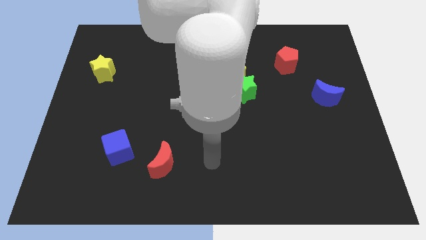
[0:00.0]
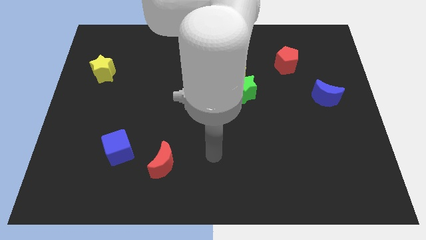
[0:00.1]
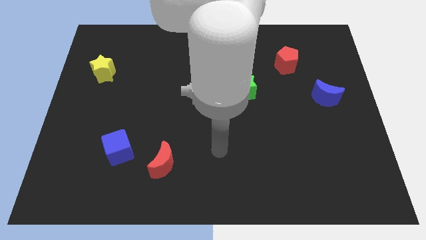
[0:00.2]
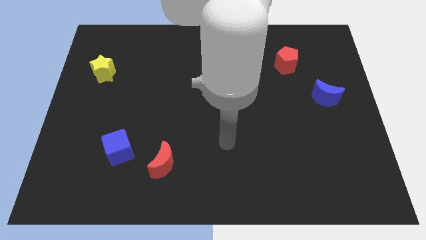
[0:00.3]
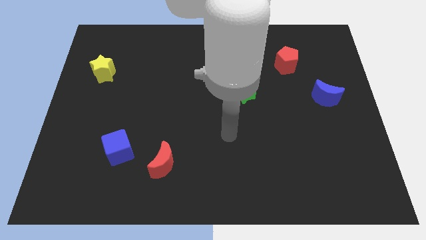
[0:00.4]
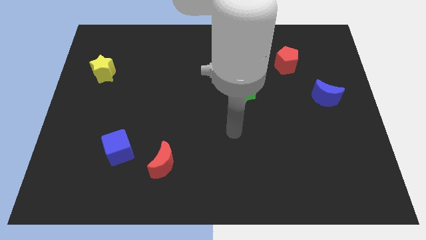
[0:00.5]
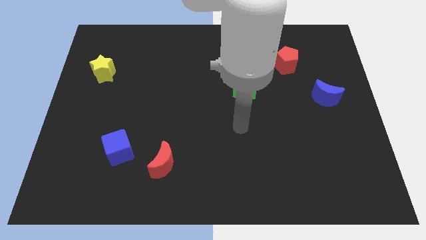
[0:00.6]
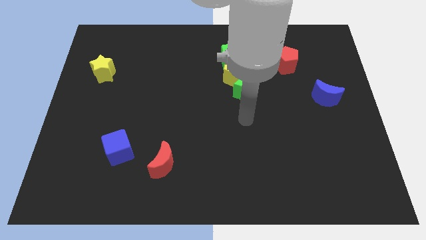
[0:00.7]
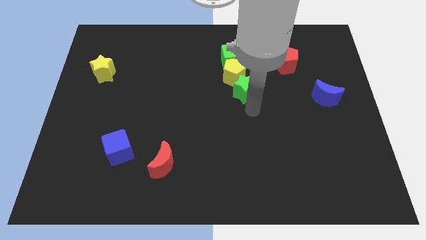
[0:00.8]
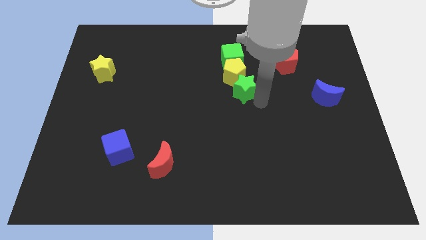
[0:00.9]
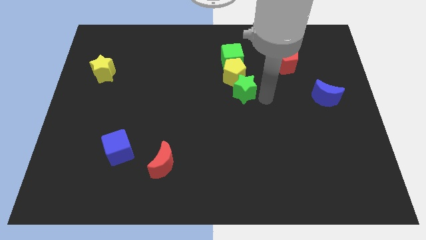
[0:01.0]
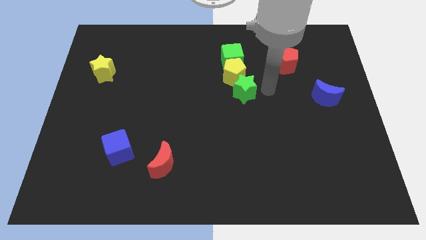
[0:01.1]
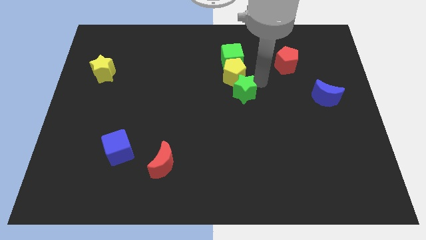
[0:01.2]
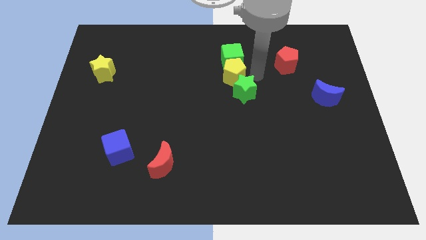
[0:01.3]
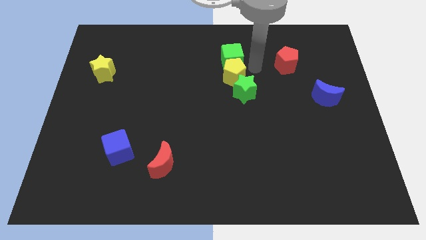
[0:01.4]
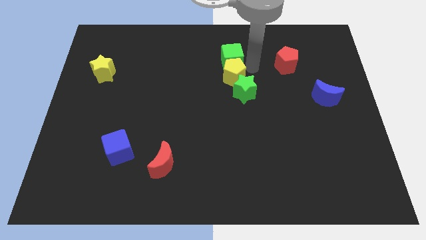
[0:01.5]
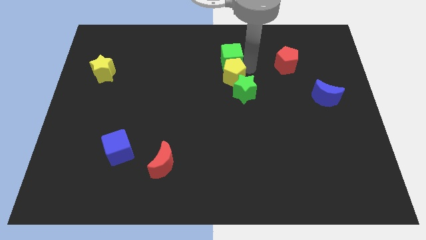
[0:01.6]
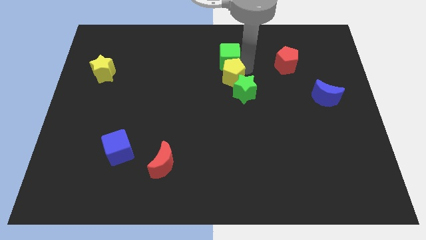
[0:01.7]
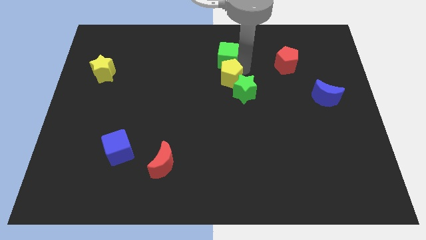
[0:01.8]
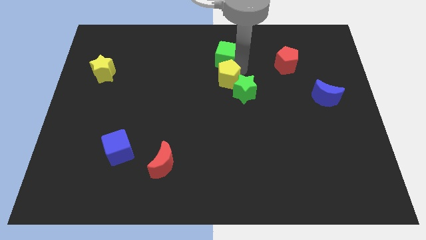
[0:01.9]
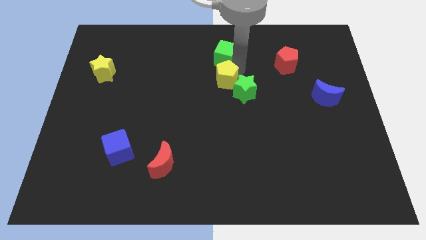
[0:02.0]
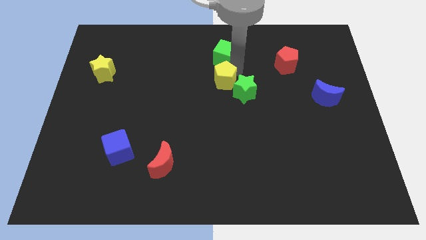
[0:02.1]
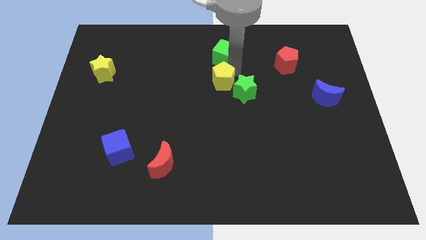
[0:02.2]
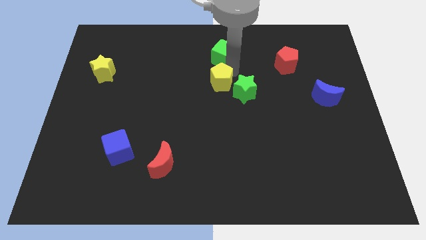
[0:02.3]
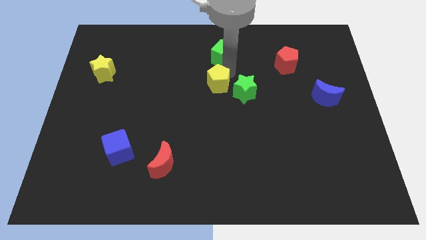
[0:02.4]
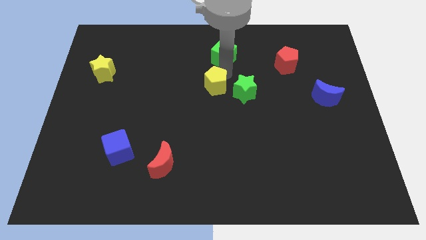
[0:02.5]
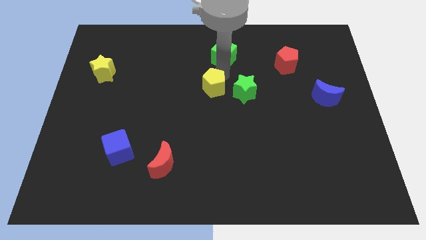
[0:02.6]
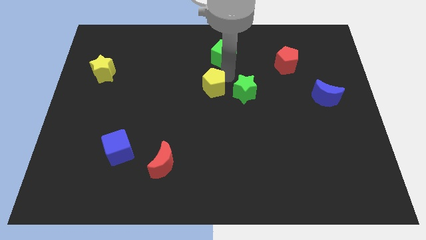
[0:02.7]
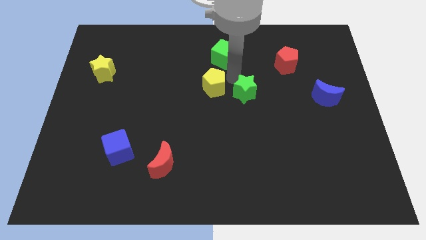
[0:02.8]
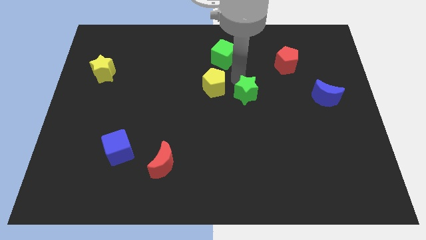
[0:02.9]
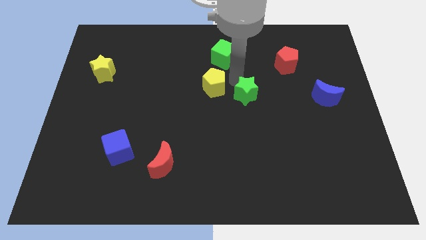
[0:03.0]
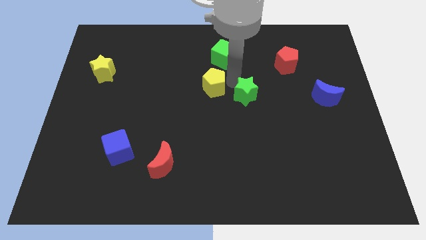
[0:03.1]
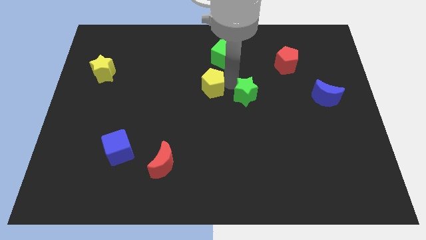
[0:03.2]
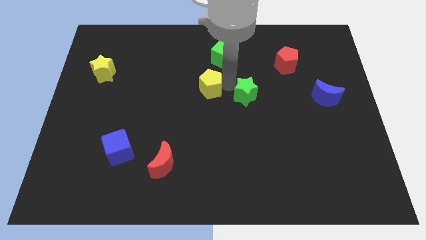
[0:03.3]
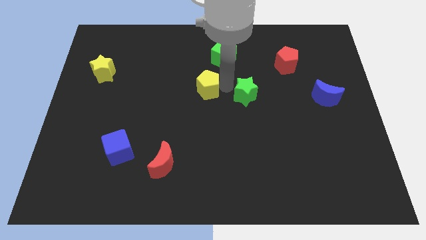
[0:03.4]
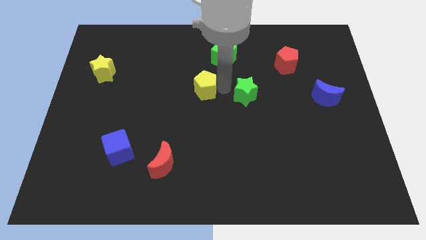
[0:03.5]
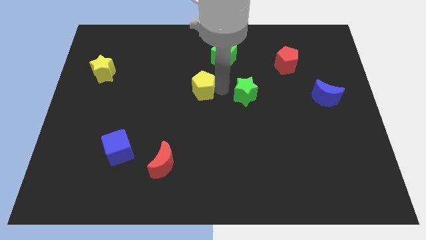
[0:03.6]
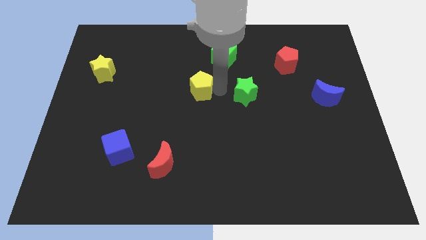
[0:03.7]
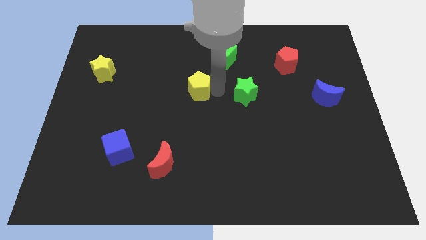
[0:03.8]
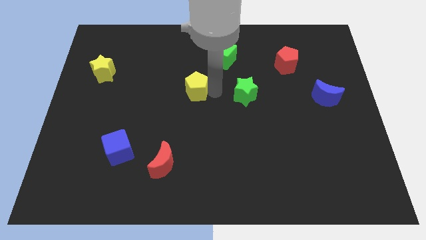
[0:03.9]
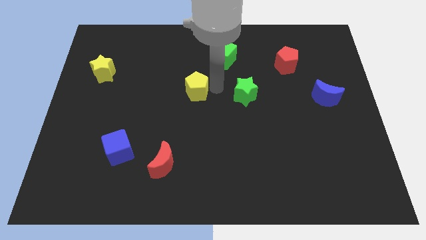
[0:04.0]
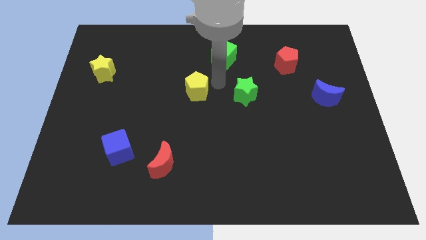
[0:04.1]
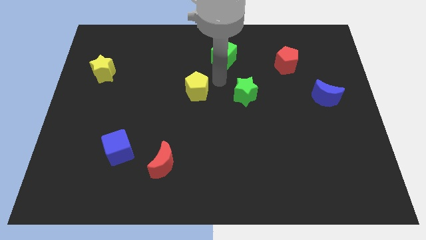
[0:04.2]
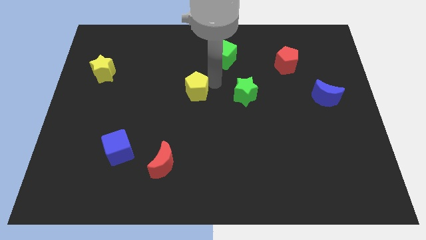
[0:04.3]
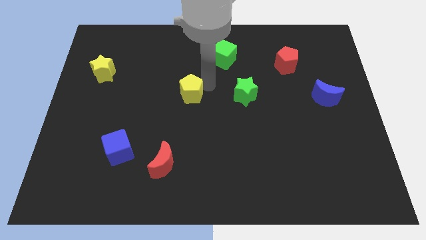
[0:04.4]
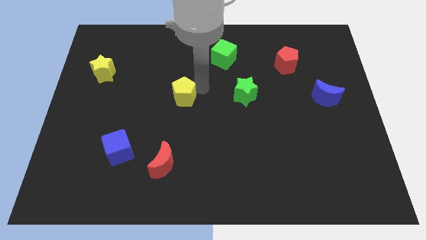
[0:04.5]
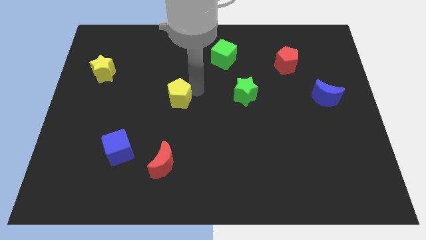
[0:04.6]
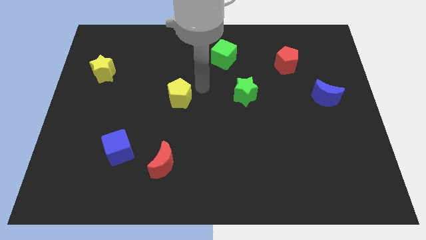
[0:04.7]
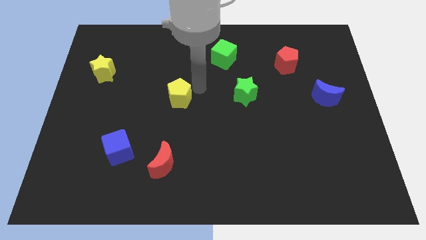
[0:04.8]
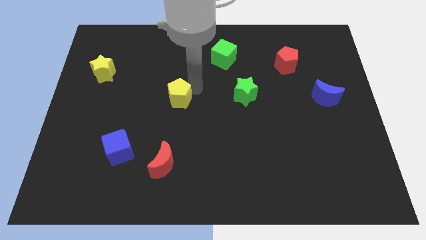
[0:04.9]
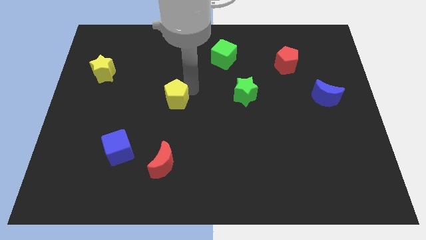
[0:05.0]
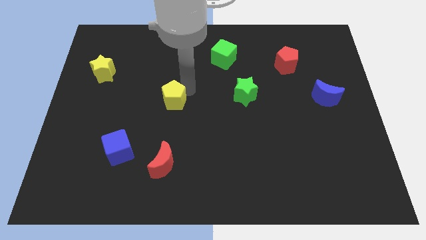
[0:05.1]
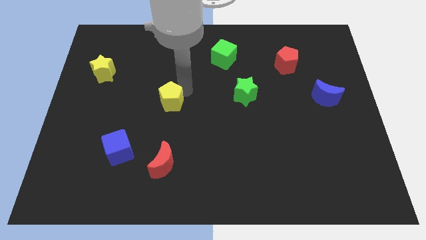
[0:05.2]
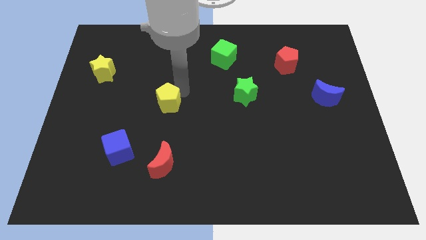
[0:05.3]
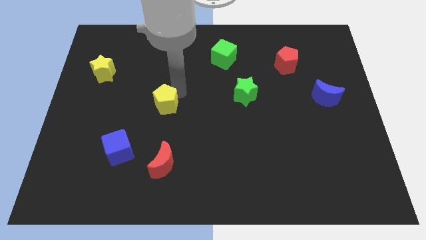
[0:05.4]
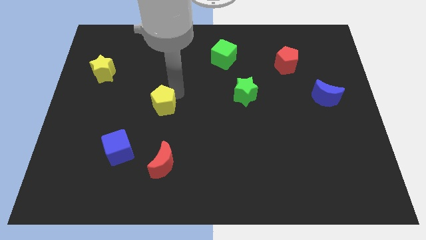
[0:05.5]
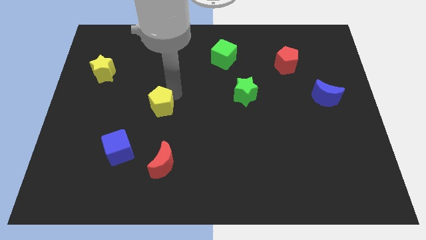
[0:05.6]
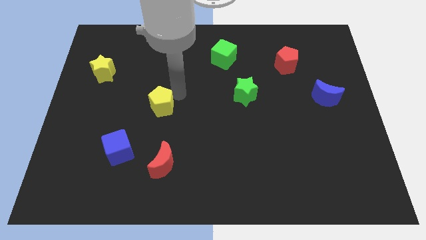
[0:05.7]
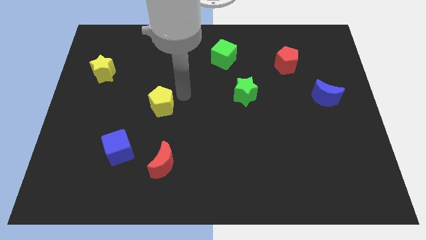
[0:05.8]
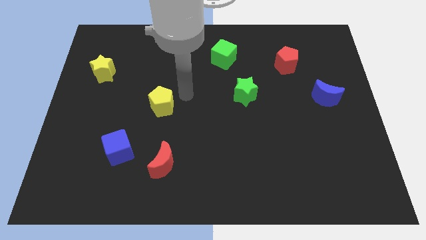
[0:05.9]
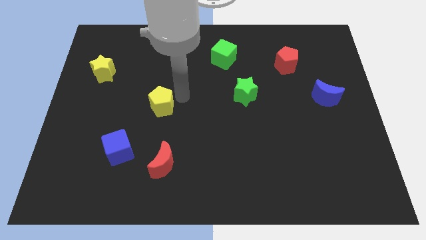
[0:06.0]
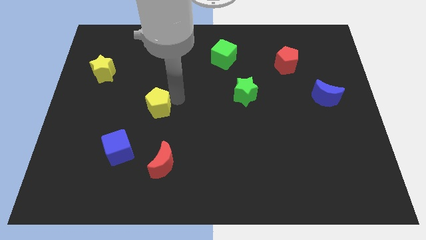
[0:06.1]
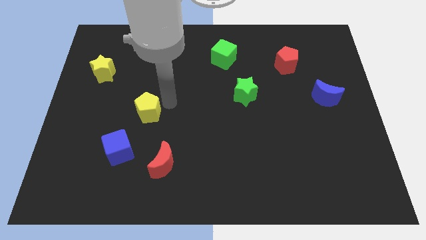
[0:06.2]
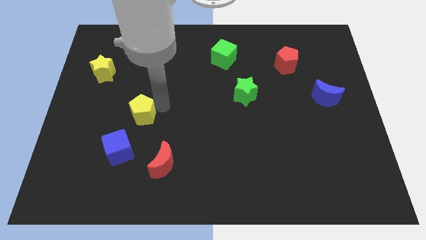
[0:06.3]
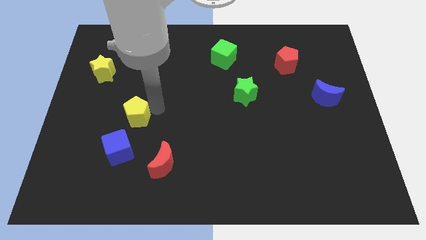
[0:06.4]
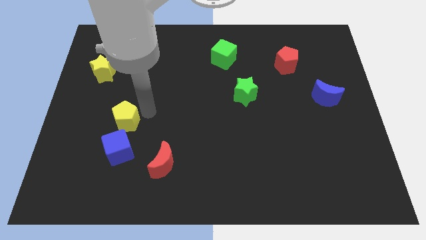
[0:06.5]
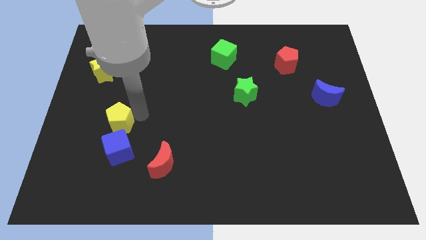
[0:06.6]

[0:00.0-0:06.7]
put the yellow pentagon diagonally up and to the left of the blue cube

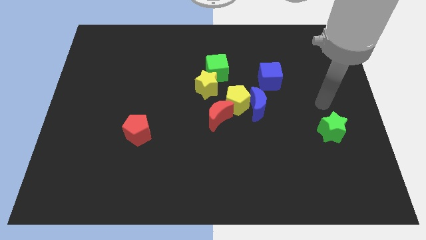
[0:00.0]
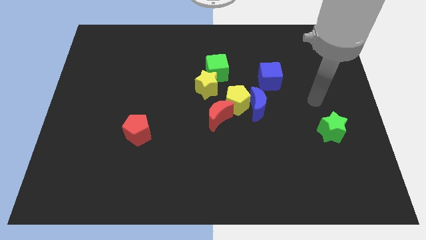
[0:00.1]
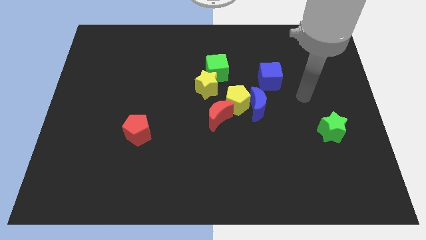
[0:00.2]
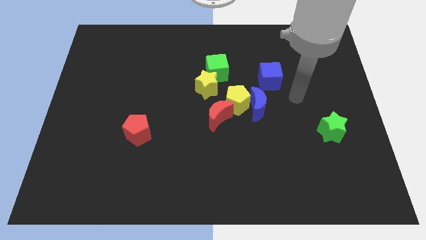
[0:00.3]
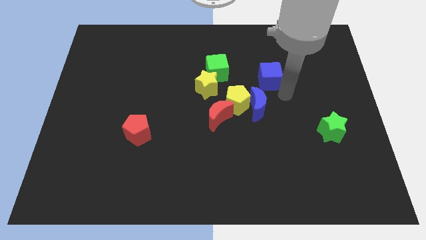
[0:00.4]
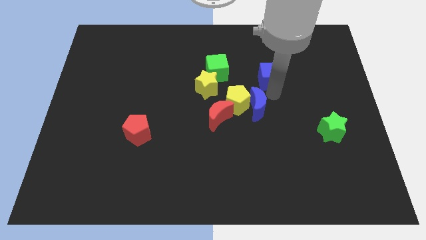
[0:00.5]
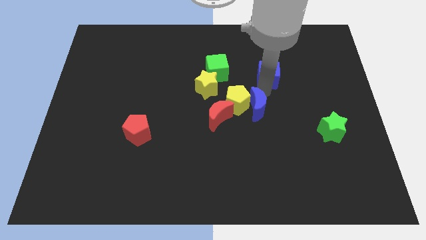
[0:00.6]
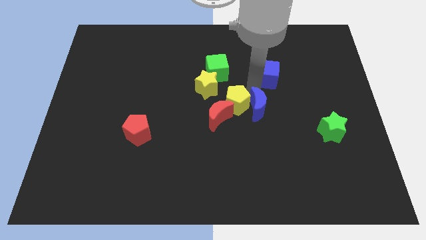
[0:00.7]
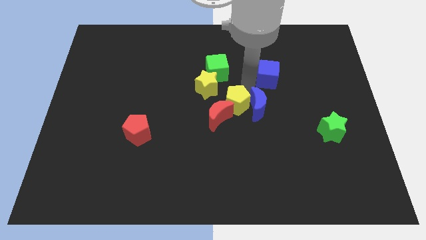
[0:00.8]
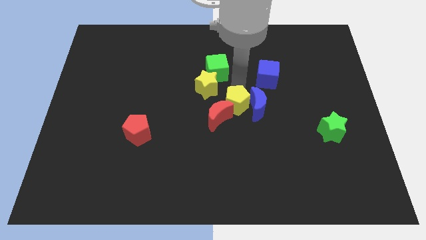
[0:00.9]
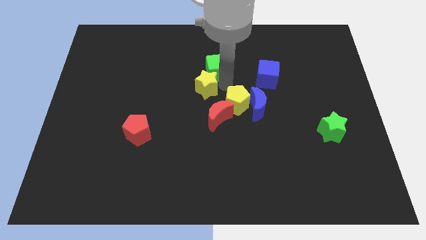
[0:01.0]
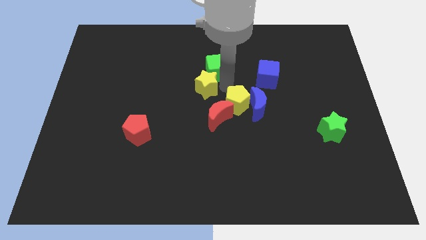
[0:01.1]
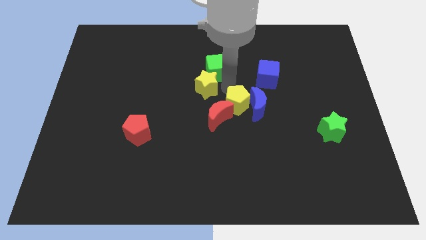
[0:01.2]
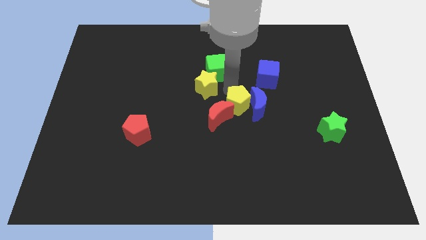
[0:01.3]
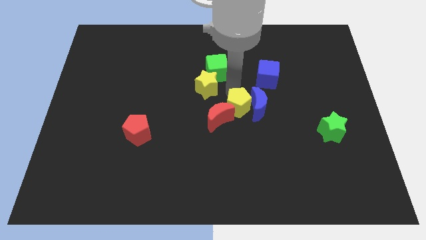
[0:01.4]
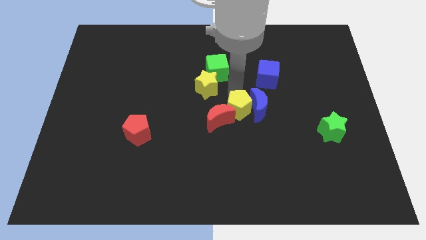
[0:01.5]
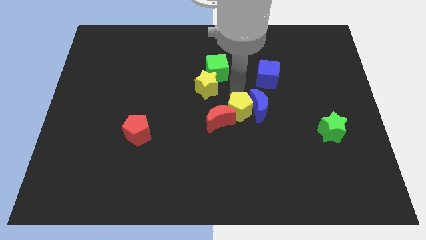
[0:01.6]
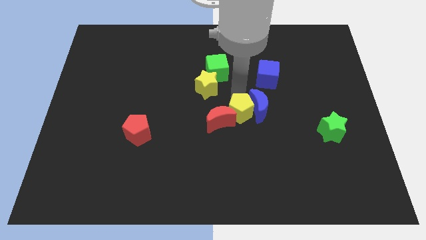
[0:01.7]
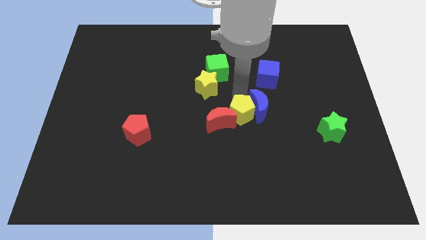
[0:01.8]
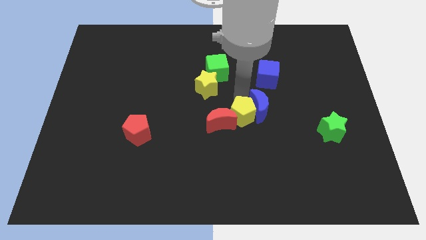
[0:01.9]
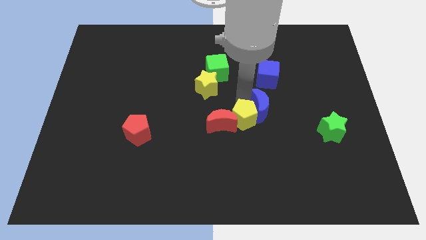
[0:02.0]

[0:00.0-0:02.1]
put the yellow pentagon to the bottom of the blue moon
